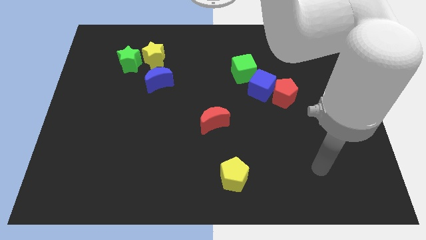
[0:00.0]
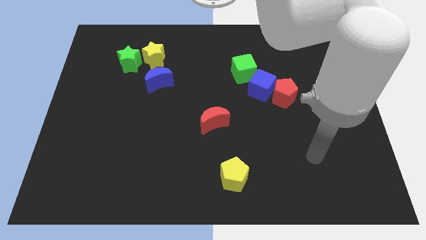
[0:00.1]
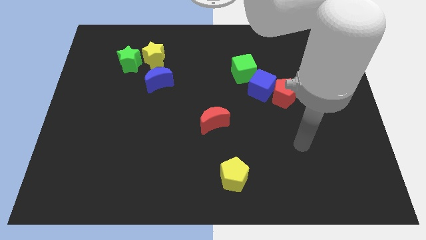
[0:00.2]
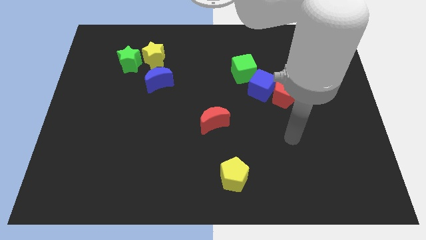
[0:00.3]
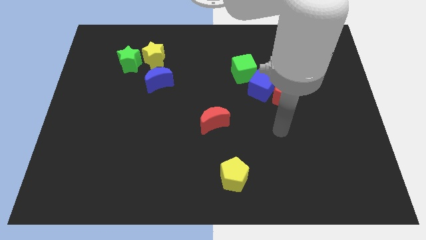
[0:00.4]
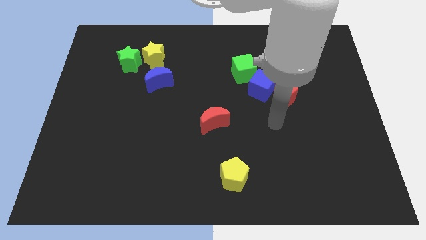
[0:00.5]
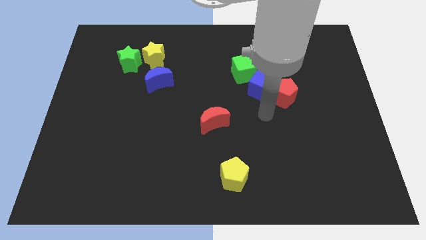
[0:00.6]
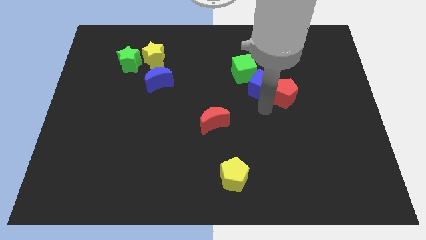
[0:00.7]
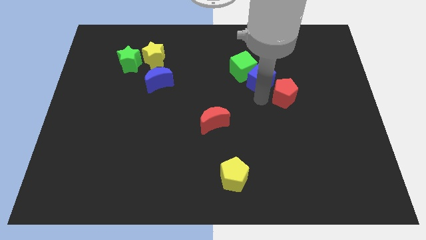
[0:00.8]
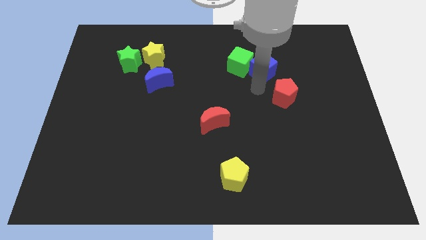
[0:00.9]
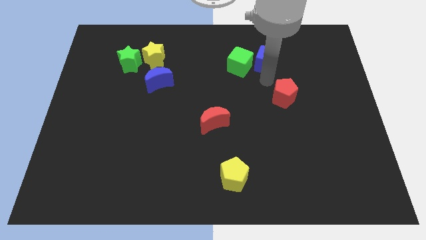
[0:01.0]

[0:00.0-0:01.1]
separate the red pentagon from the blue cube

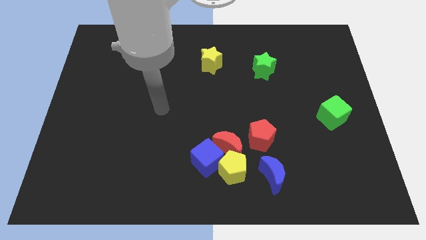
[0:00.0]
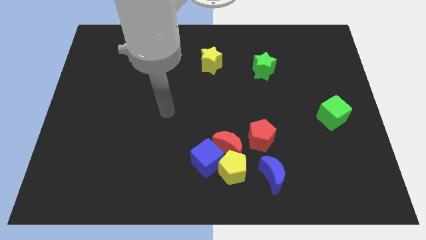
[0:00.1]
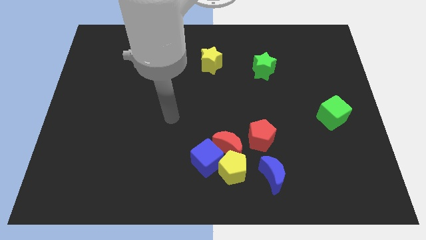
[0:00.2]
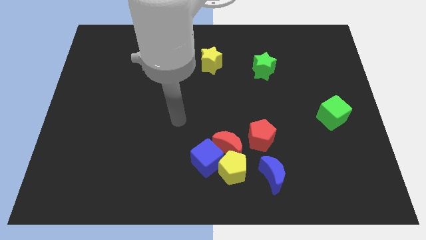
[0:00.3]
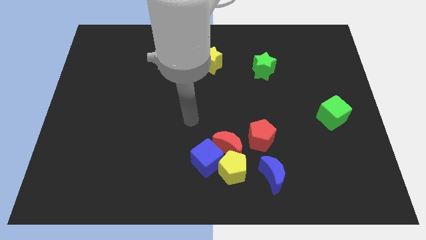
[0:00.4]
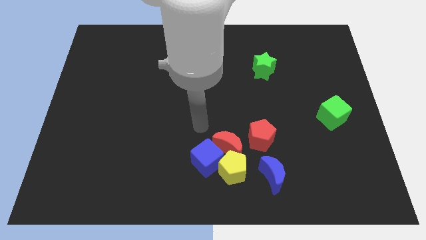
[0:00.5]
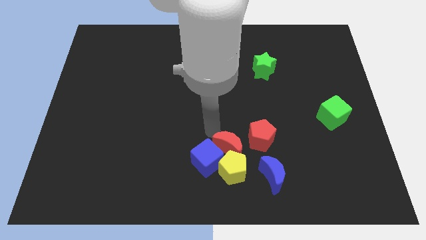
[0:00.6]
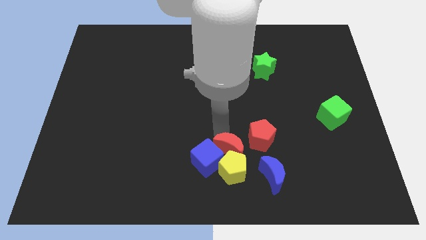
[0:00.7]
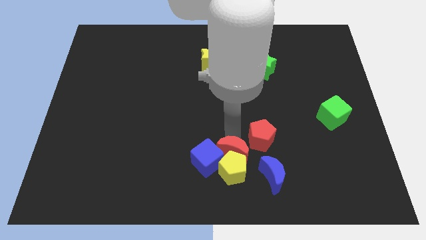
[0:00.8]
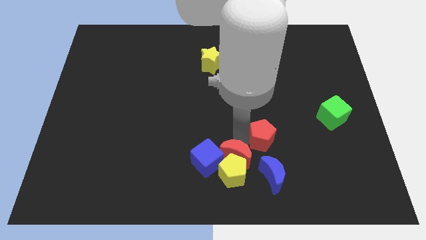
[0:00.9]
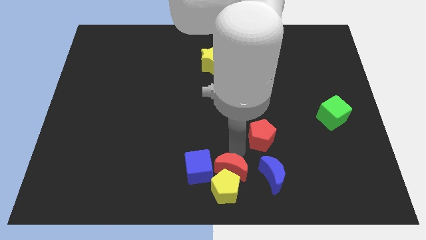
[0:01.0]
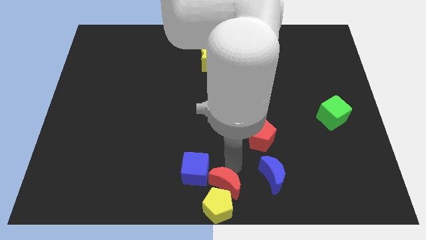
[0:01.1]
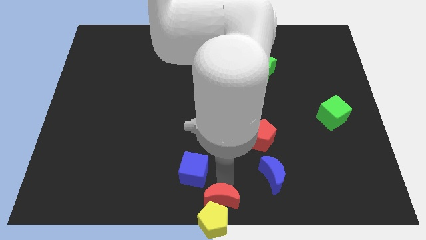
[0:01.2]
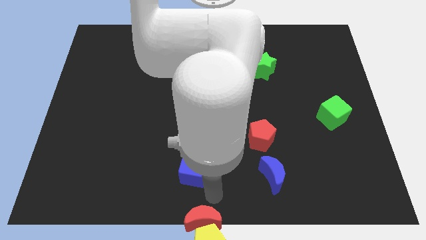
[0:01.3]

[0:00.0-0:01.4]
pull the blue cube apart from the red moon and yellow pentagon

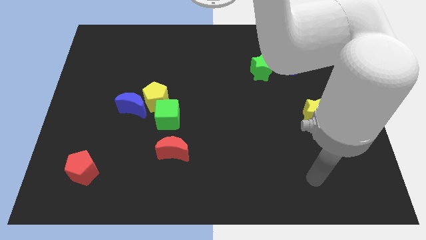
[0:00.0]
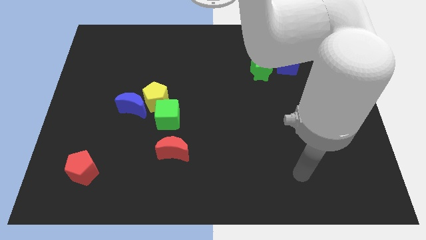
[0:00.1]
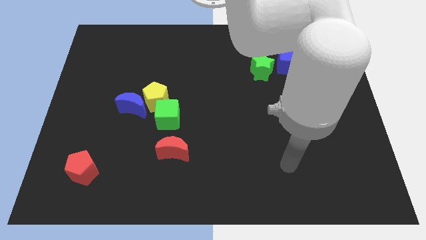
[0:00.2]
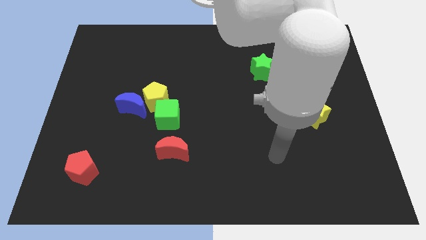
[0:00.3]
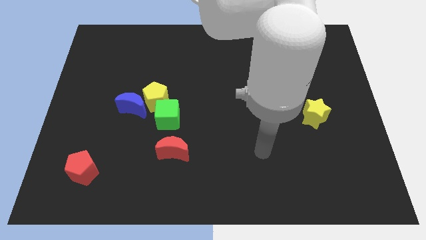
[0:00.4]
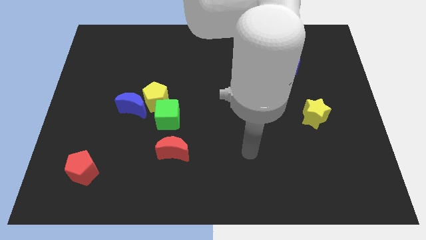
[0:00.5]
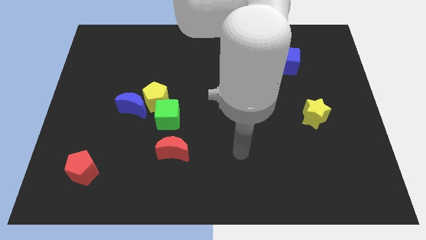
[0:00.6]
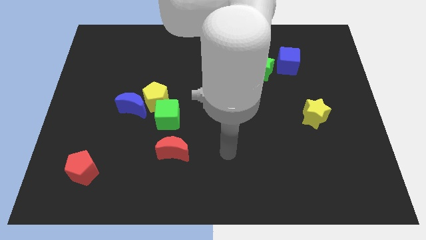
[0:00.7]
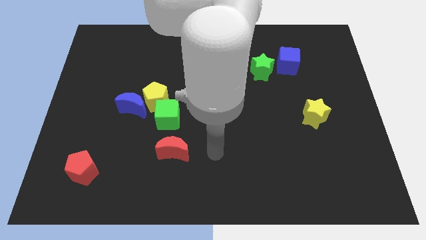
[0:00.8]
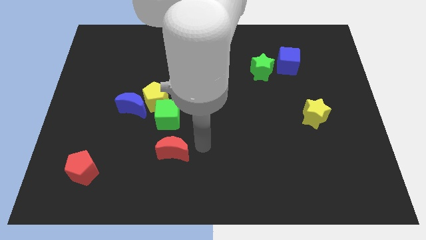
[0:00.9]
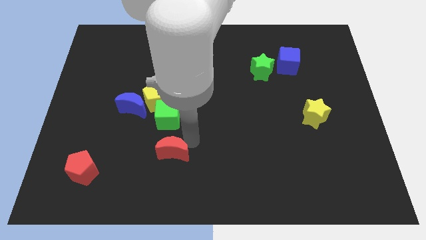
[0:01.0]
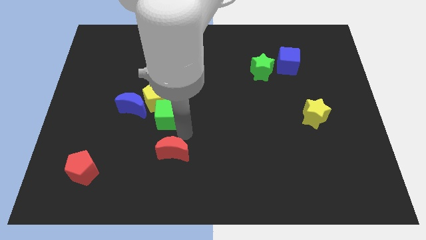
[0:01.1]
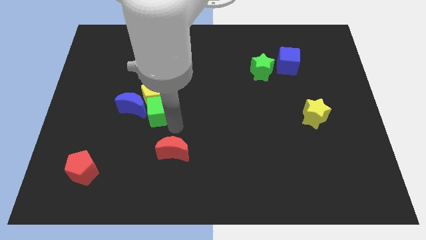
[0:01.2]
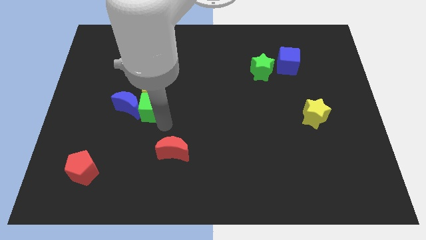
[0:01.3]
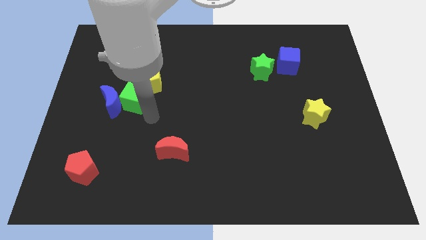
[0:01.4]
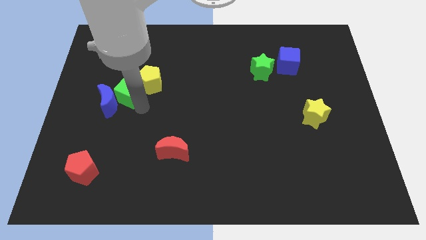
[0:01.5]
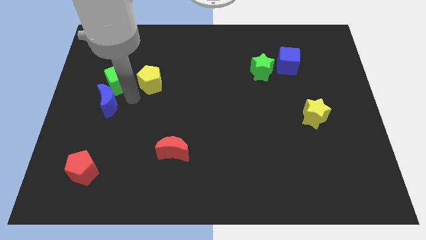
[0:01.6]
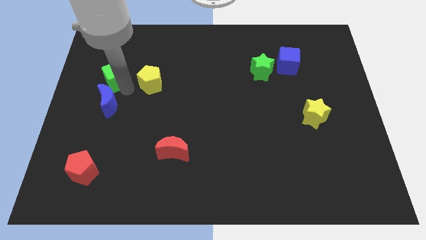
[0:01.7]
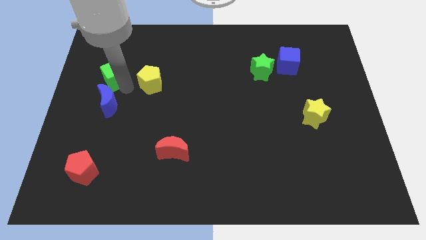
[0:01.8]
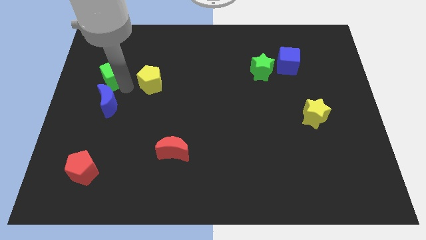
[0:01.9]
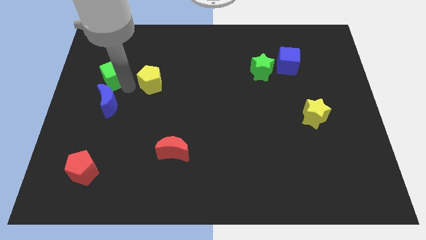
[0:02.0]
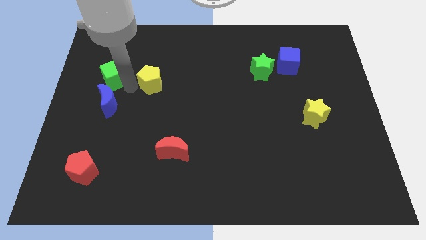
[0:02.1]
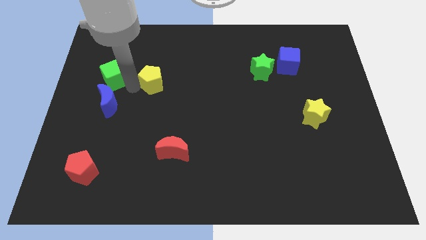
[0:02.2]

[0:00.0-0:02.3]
separate the yellow pentagon from the blue moon and green cube

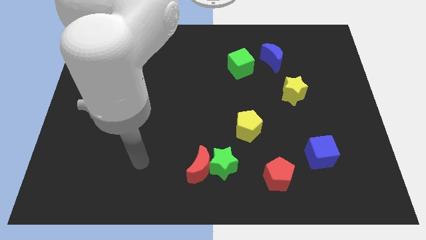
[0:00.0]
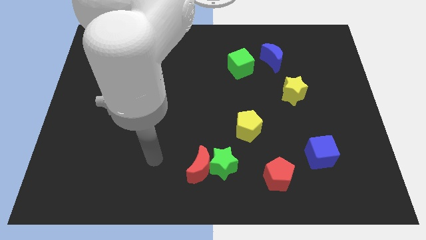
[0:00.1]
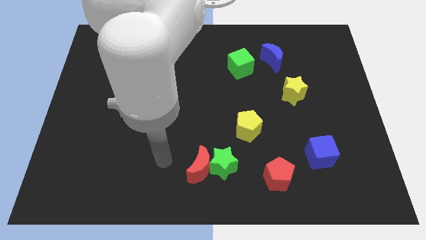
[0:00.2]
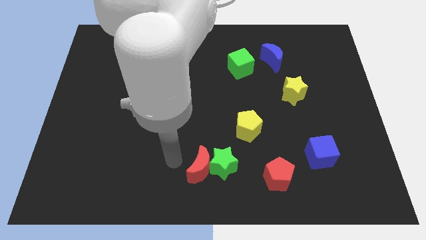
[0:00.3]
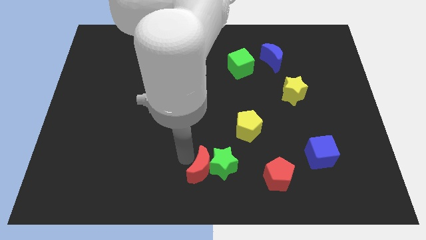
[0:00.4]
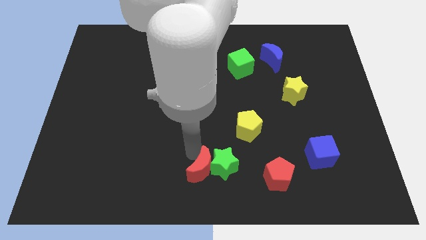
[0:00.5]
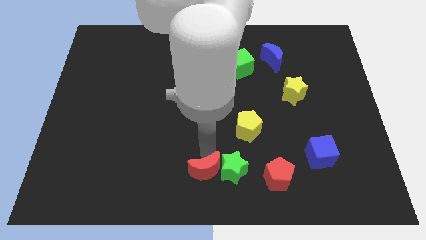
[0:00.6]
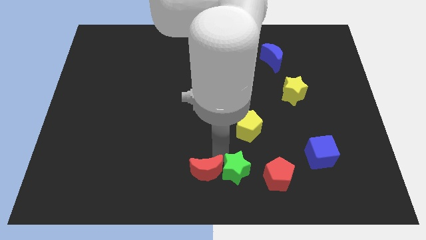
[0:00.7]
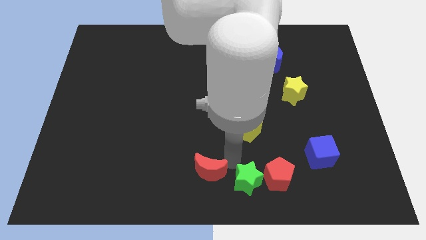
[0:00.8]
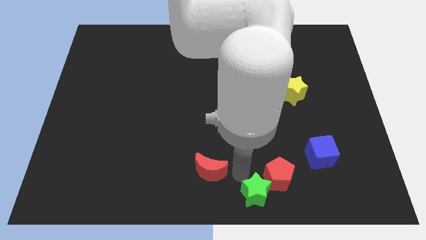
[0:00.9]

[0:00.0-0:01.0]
separate the red moon from the green star

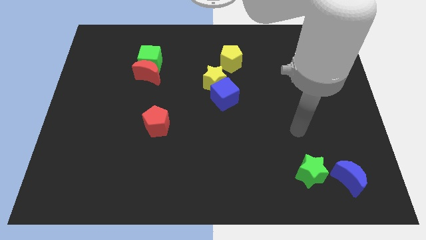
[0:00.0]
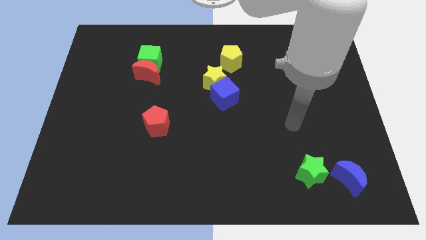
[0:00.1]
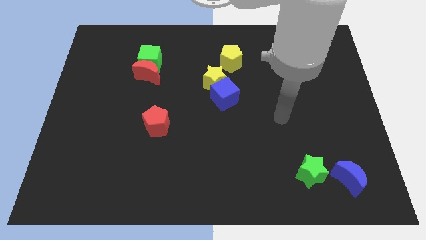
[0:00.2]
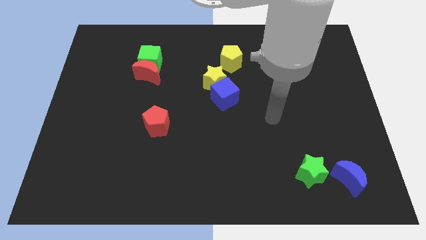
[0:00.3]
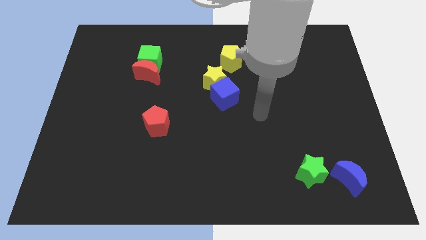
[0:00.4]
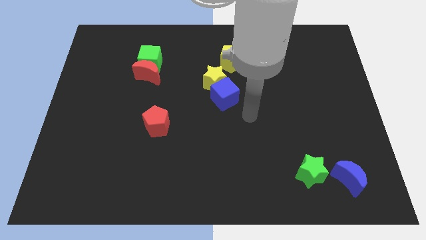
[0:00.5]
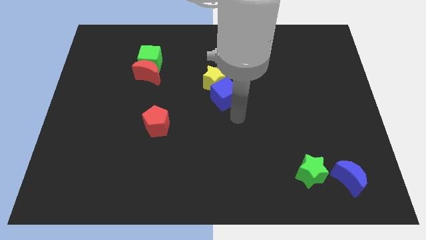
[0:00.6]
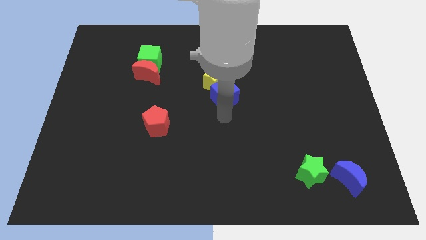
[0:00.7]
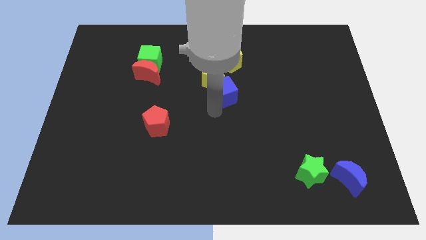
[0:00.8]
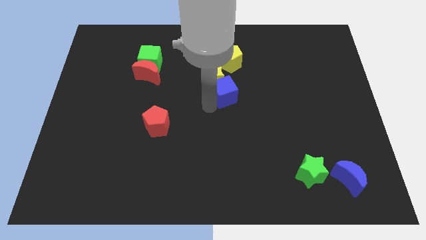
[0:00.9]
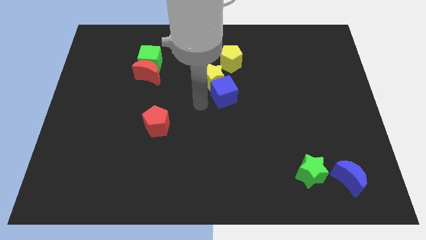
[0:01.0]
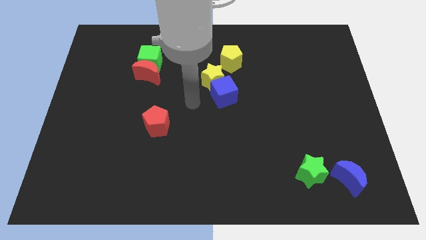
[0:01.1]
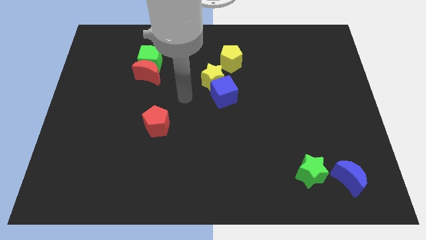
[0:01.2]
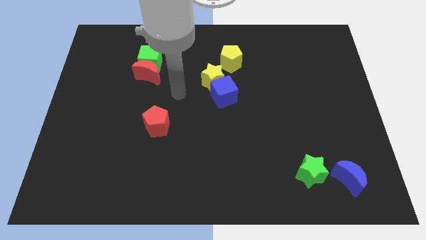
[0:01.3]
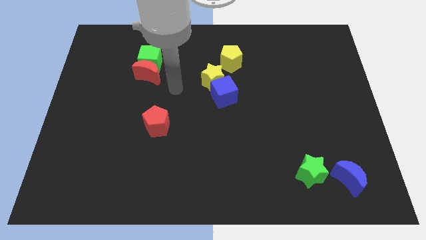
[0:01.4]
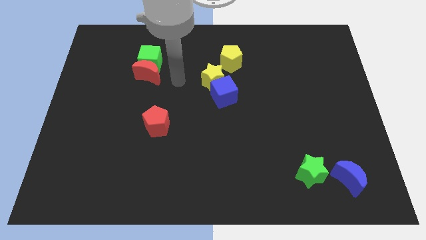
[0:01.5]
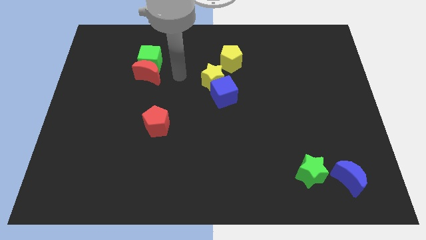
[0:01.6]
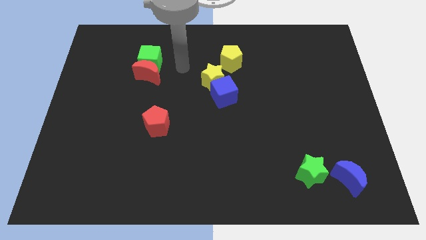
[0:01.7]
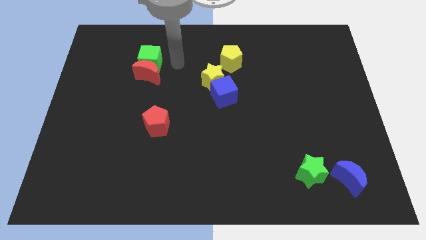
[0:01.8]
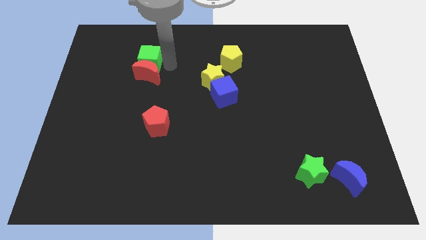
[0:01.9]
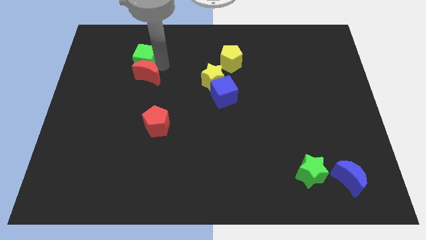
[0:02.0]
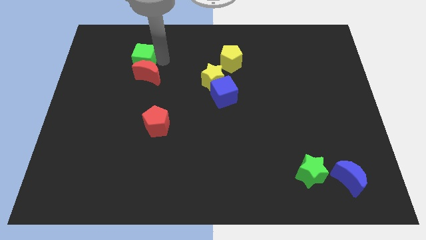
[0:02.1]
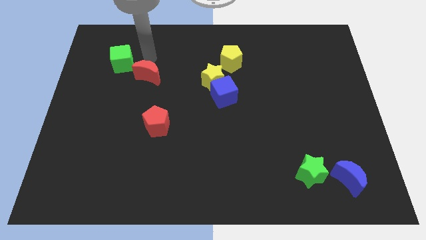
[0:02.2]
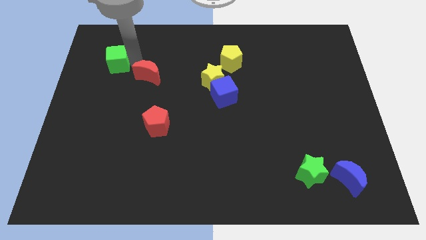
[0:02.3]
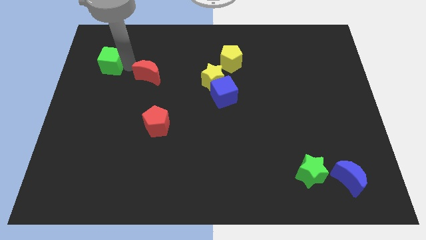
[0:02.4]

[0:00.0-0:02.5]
separate the red moon from the green cube

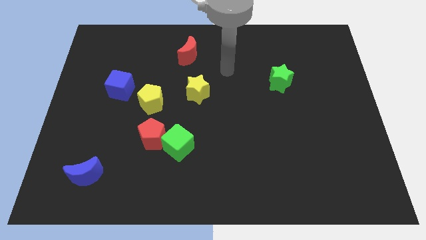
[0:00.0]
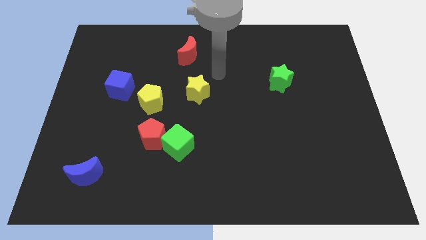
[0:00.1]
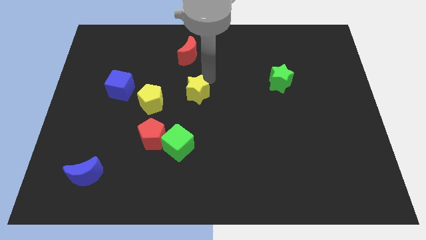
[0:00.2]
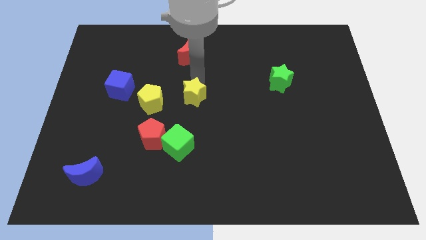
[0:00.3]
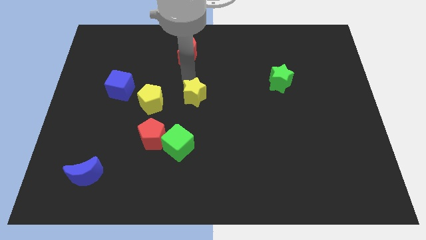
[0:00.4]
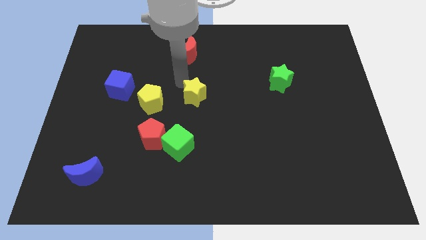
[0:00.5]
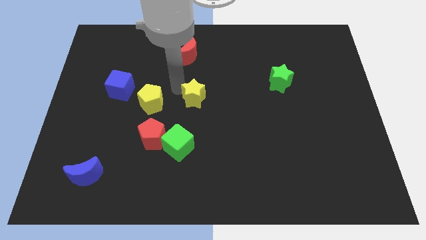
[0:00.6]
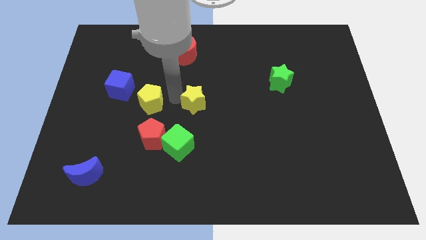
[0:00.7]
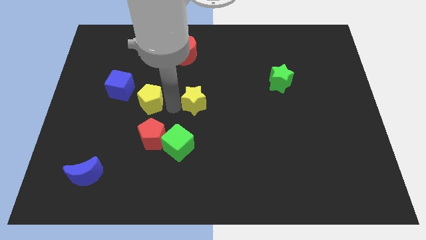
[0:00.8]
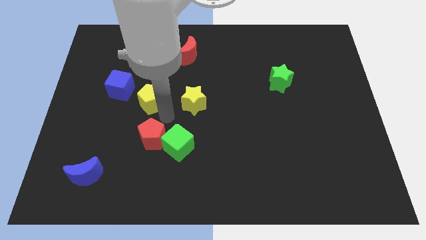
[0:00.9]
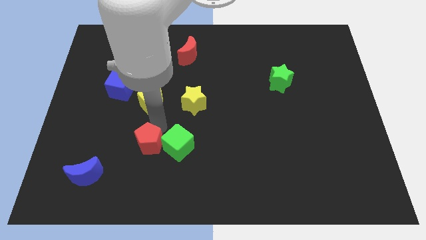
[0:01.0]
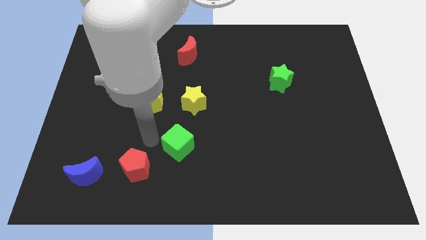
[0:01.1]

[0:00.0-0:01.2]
pull the green cube apart from the red pentagon
